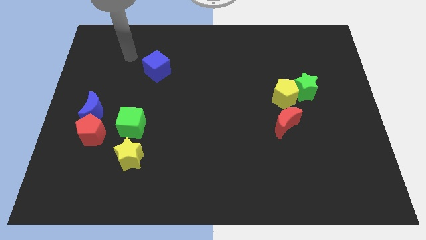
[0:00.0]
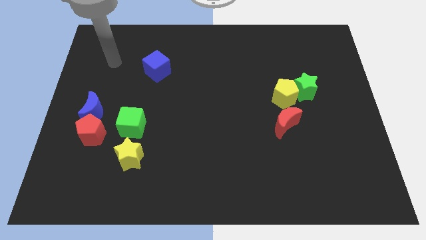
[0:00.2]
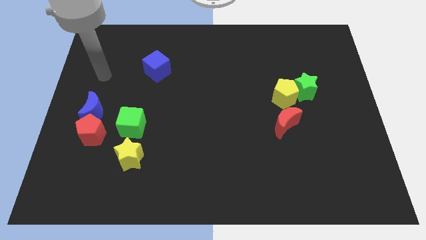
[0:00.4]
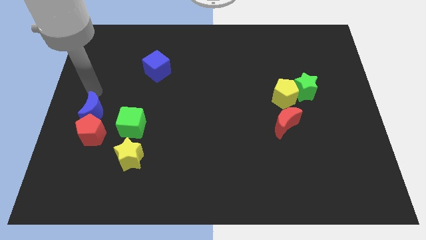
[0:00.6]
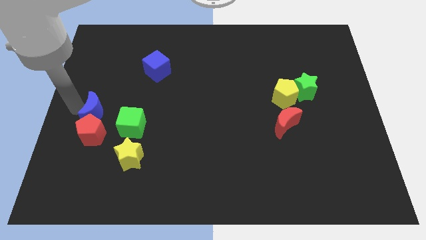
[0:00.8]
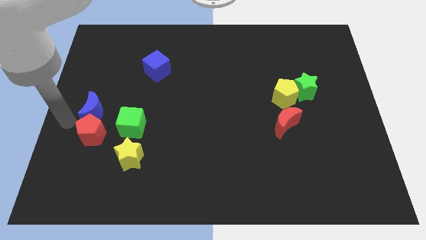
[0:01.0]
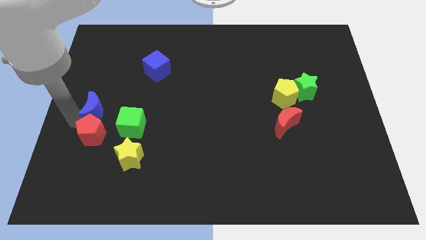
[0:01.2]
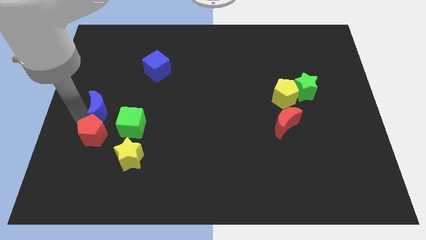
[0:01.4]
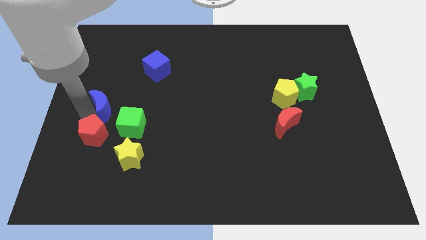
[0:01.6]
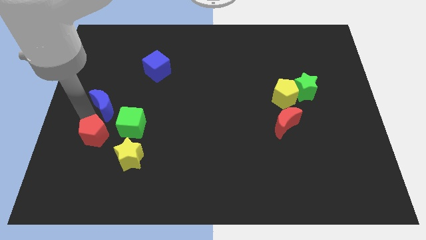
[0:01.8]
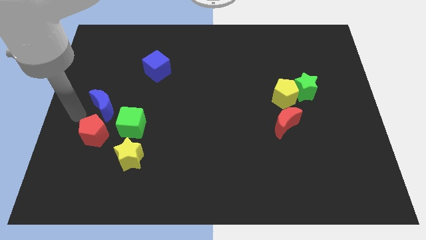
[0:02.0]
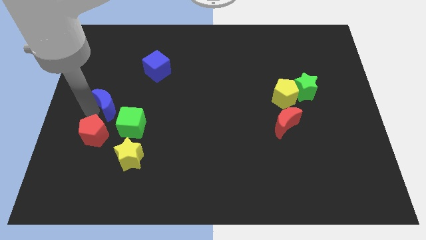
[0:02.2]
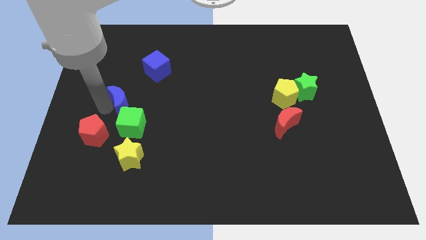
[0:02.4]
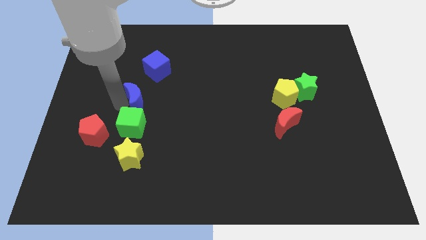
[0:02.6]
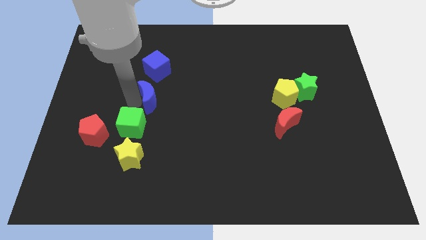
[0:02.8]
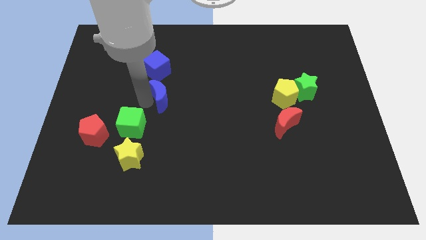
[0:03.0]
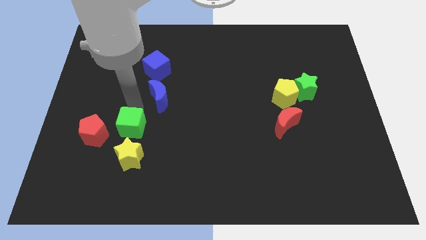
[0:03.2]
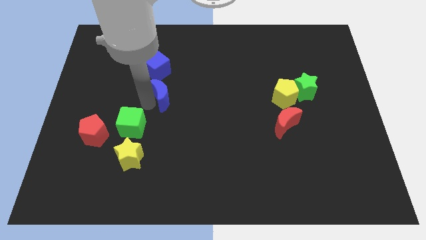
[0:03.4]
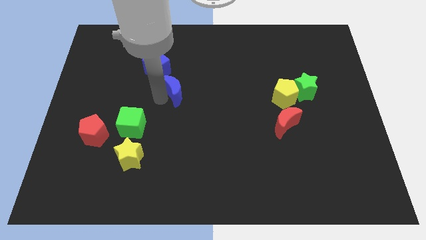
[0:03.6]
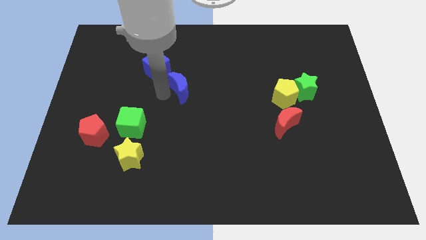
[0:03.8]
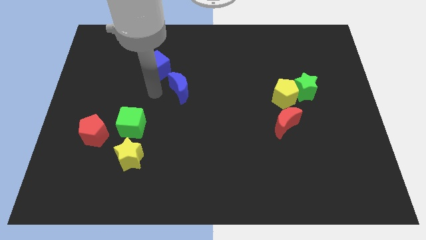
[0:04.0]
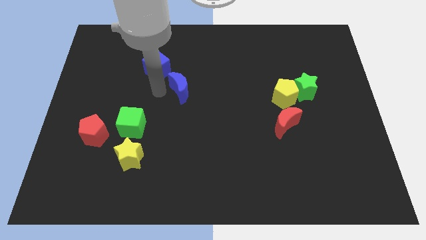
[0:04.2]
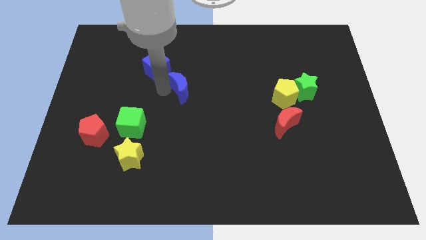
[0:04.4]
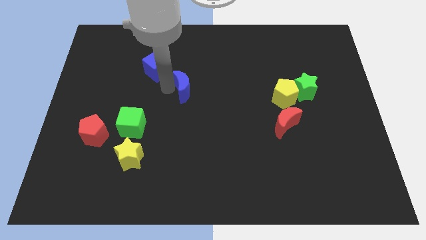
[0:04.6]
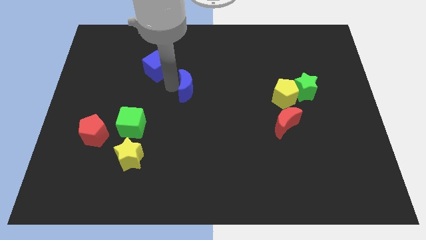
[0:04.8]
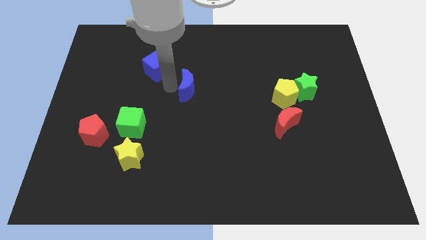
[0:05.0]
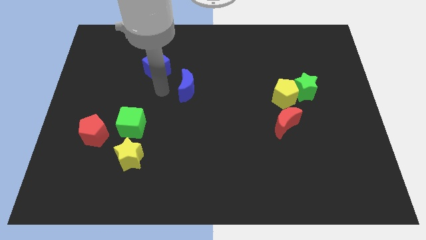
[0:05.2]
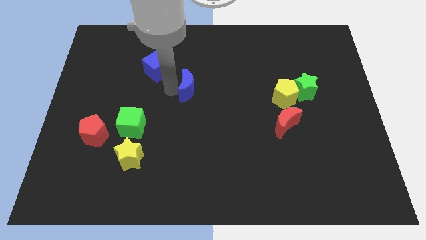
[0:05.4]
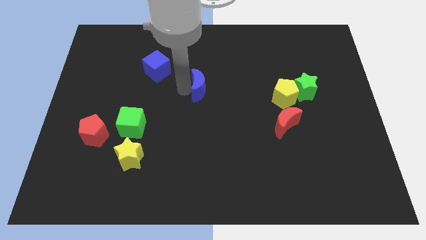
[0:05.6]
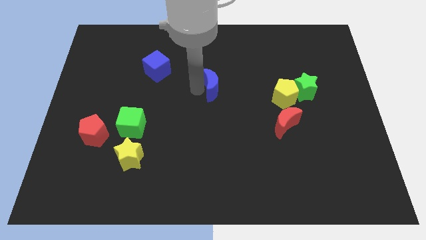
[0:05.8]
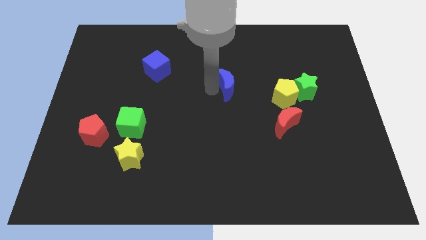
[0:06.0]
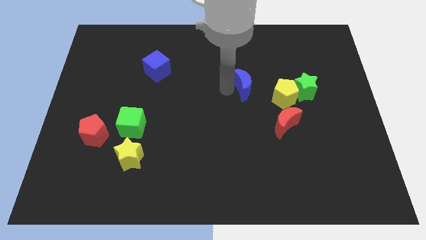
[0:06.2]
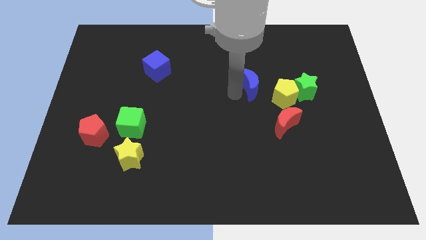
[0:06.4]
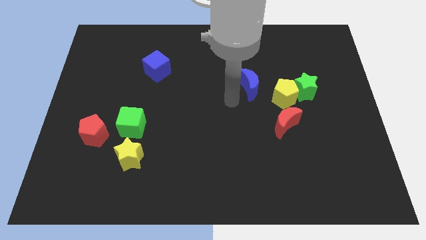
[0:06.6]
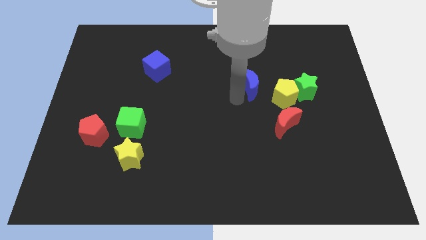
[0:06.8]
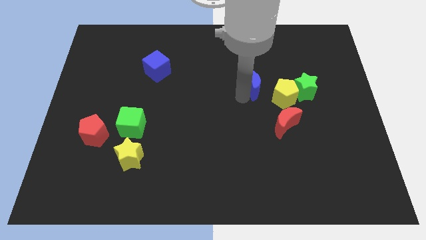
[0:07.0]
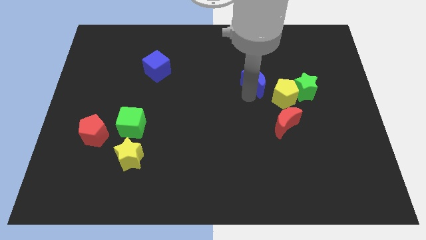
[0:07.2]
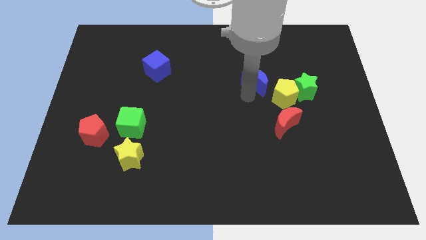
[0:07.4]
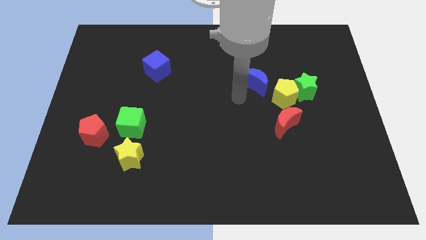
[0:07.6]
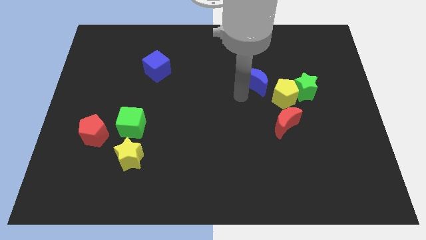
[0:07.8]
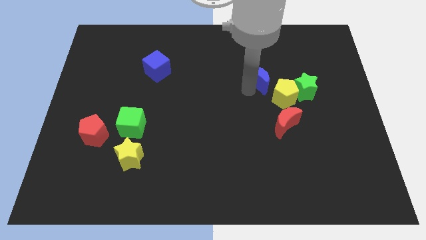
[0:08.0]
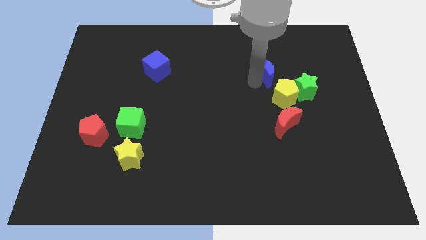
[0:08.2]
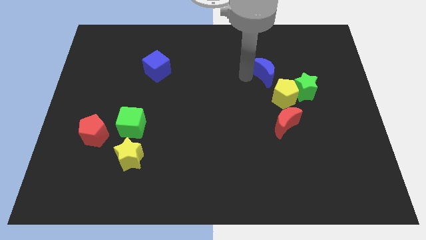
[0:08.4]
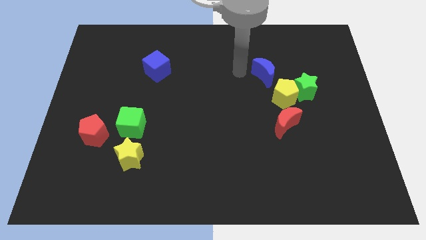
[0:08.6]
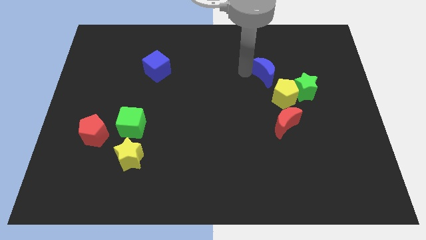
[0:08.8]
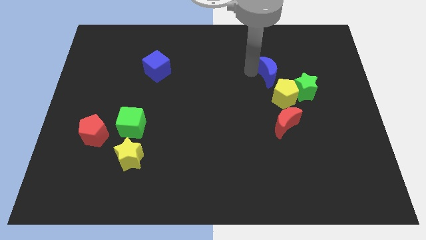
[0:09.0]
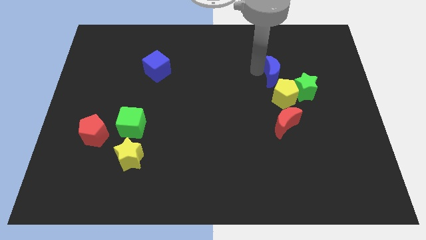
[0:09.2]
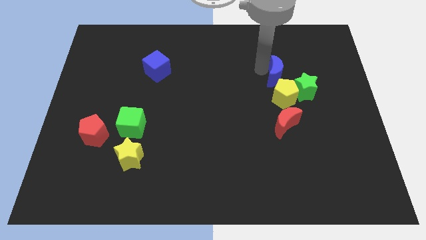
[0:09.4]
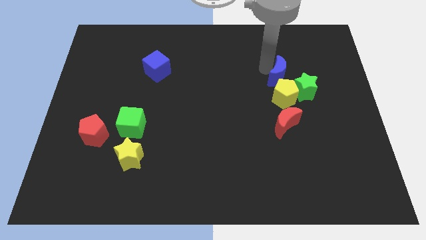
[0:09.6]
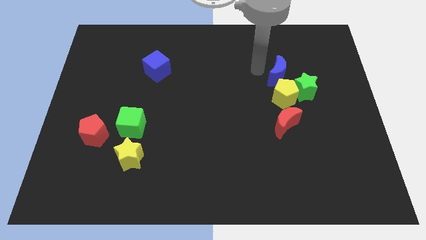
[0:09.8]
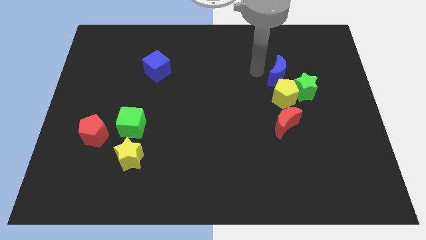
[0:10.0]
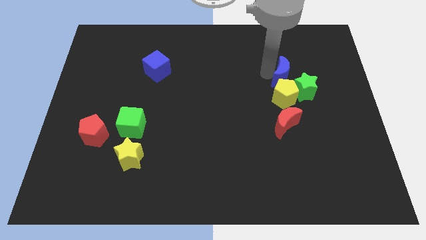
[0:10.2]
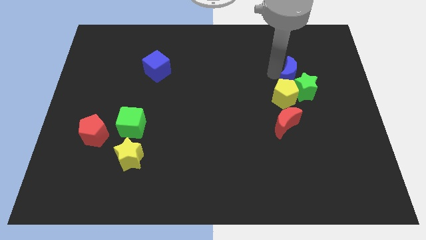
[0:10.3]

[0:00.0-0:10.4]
push the blue moon to the green star

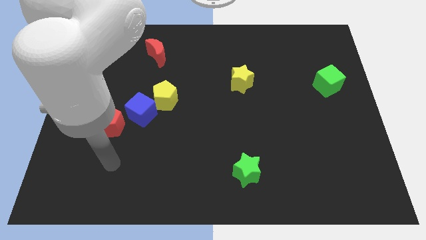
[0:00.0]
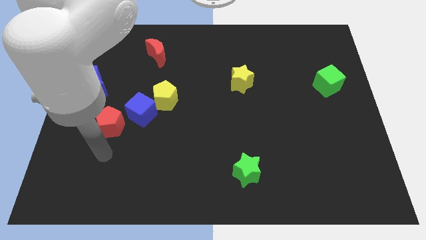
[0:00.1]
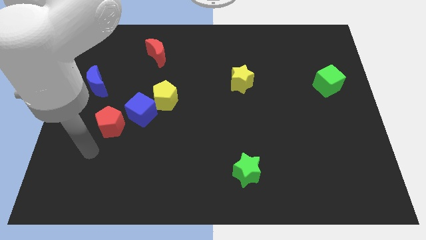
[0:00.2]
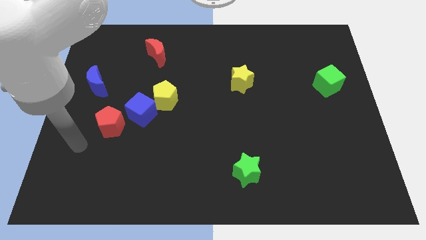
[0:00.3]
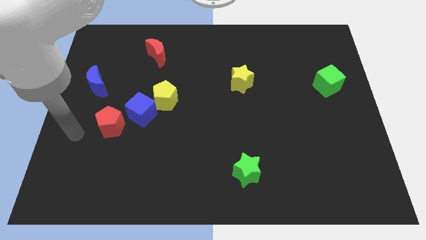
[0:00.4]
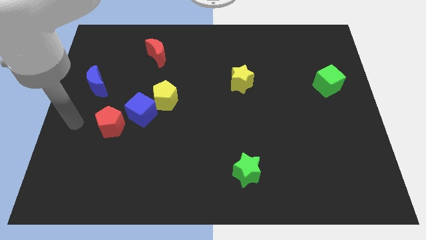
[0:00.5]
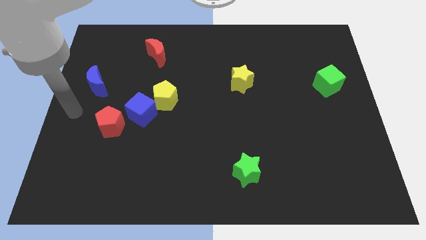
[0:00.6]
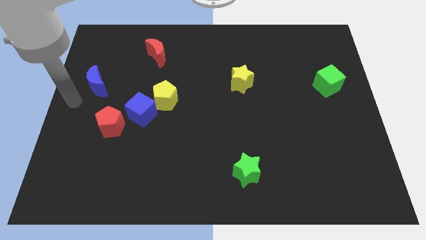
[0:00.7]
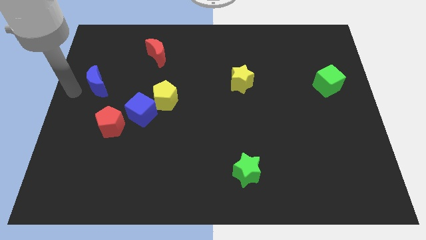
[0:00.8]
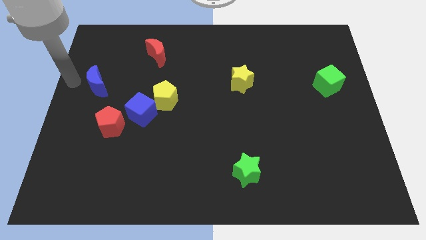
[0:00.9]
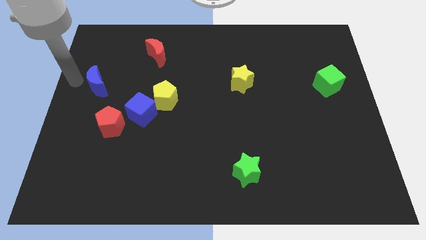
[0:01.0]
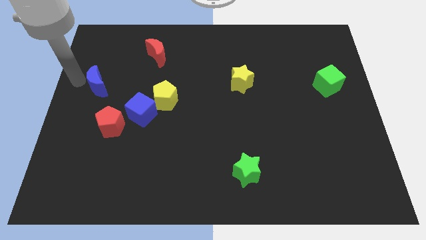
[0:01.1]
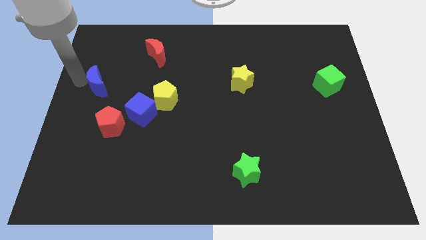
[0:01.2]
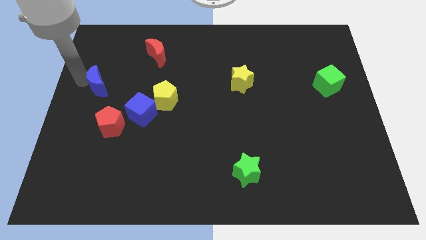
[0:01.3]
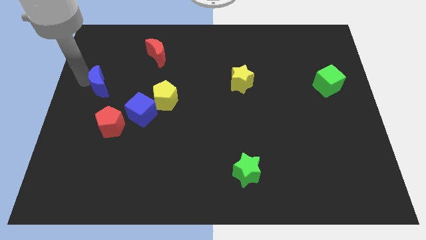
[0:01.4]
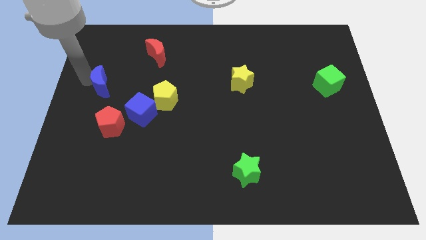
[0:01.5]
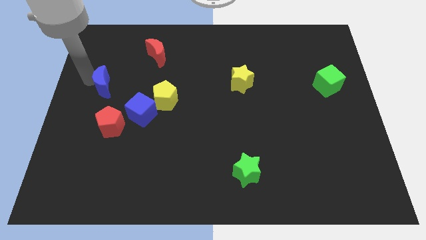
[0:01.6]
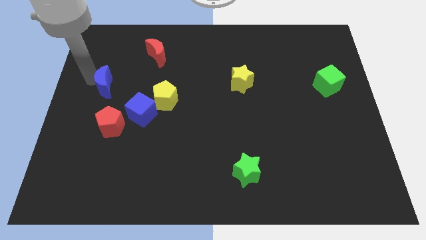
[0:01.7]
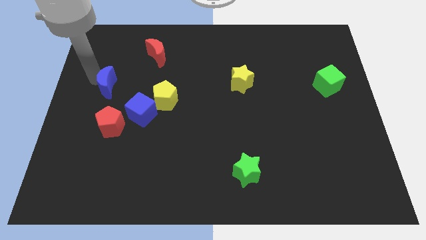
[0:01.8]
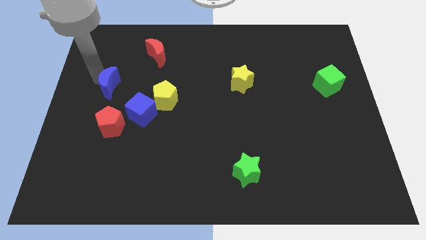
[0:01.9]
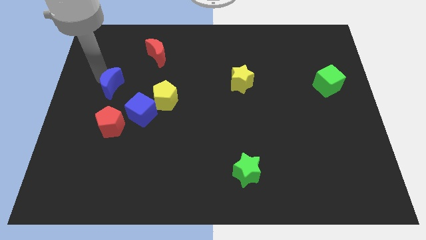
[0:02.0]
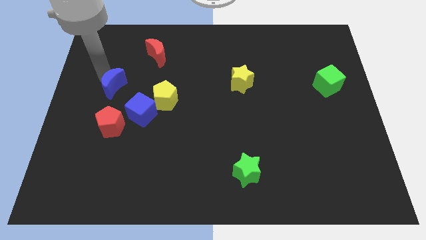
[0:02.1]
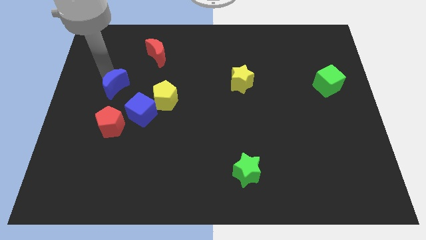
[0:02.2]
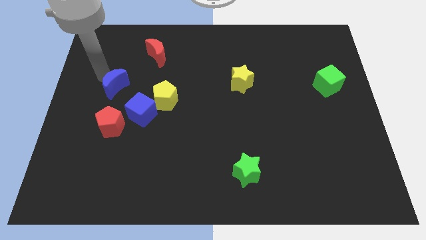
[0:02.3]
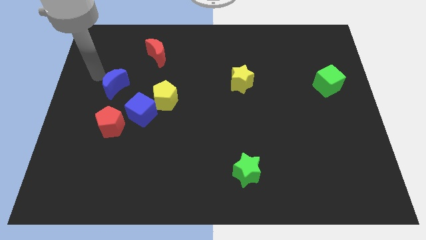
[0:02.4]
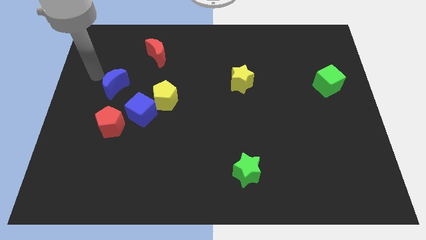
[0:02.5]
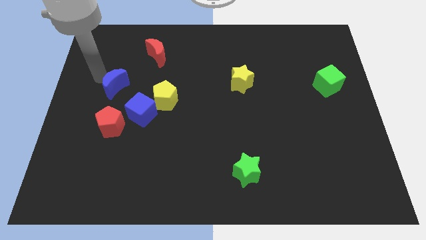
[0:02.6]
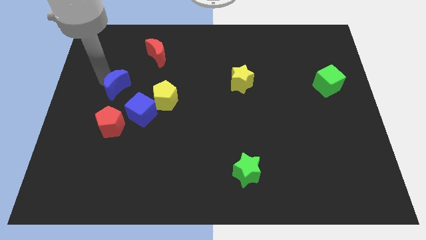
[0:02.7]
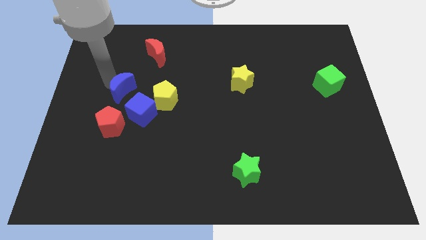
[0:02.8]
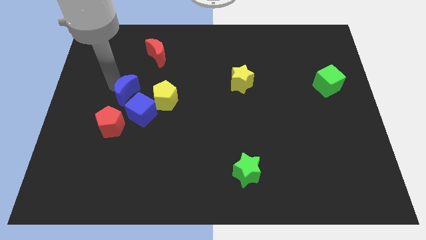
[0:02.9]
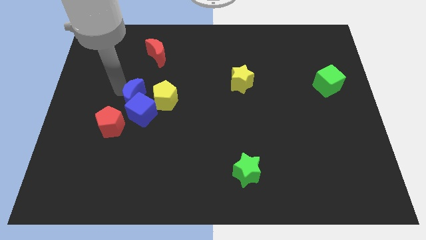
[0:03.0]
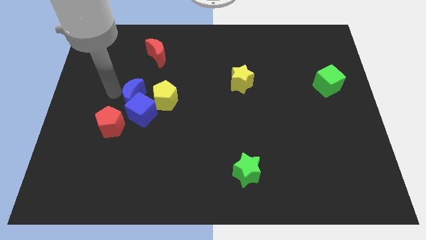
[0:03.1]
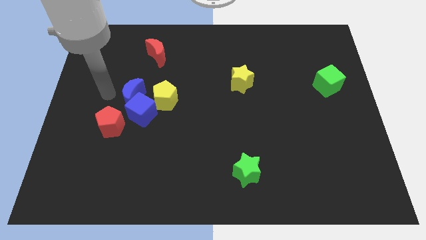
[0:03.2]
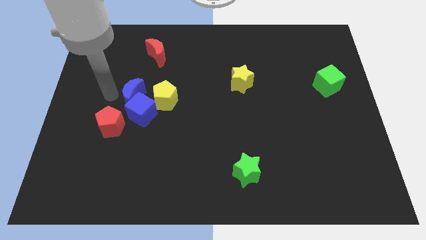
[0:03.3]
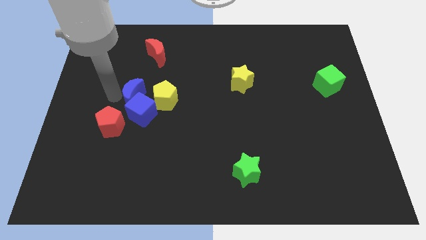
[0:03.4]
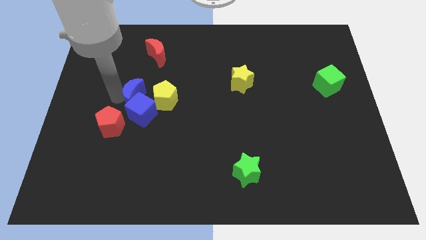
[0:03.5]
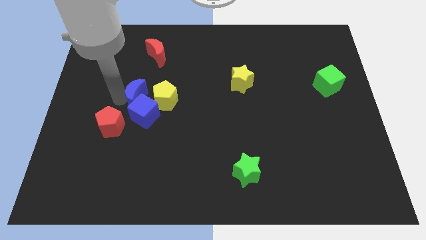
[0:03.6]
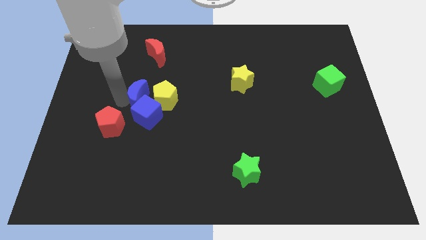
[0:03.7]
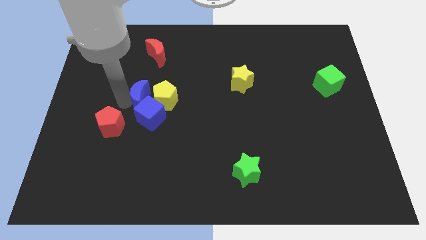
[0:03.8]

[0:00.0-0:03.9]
move the blue moon close to the yellow pentagon
